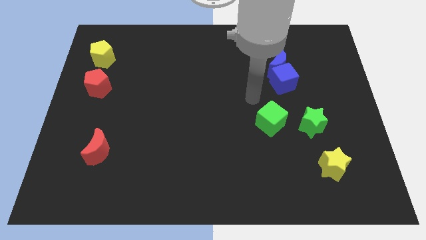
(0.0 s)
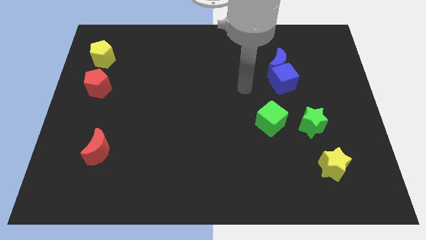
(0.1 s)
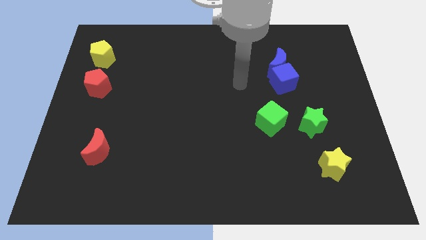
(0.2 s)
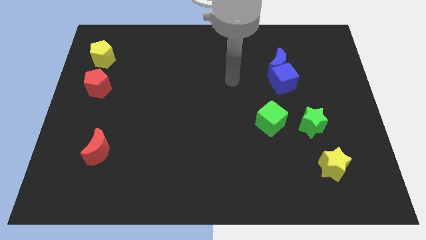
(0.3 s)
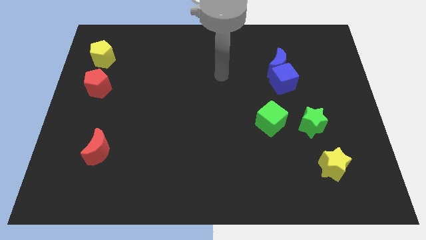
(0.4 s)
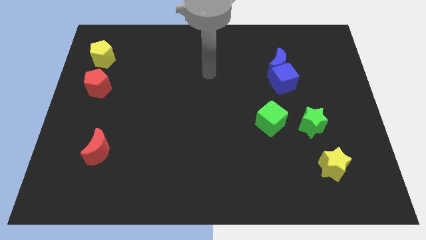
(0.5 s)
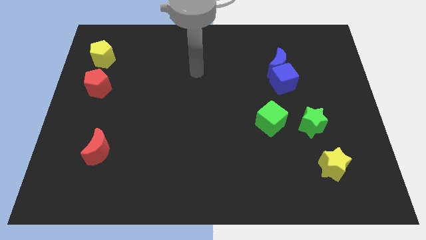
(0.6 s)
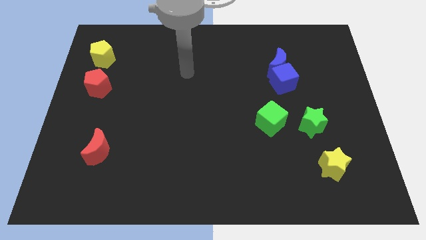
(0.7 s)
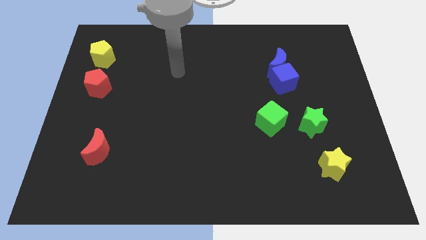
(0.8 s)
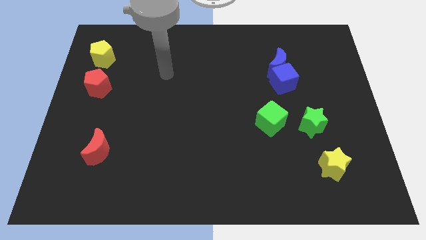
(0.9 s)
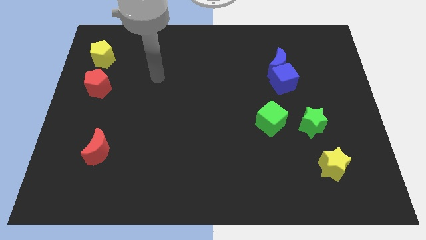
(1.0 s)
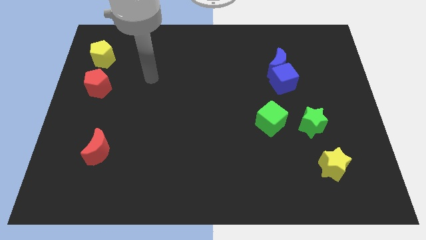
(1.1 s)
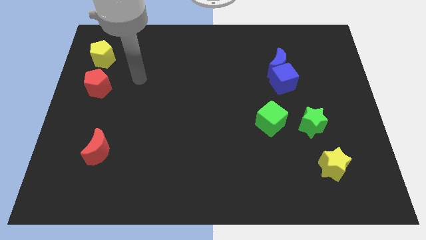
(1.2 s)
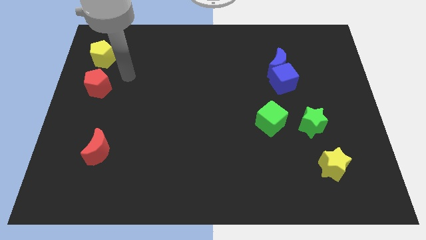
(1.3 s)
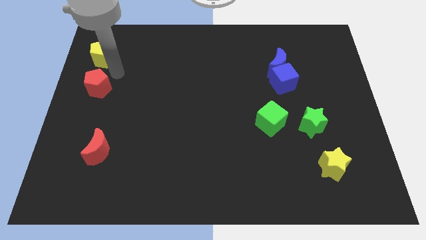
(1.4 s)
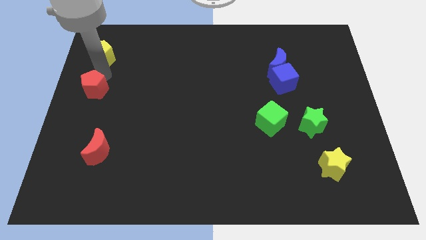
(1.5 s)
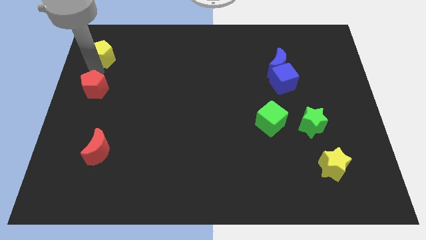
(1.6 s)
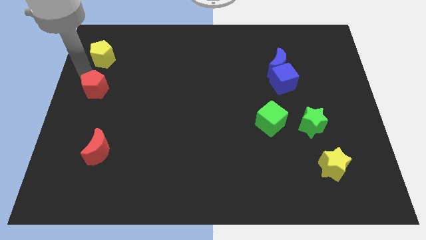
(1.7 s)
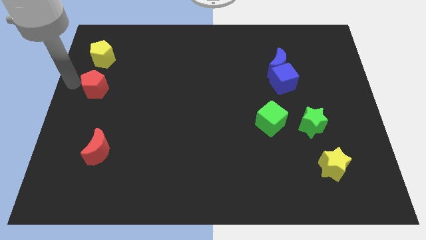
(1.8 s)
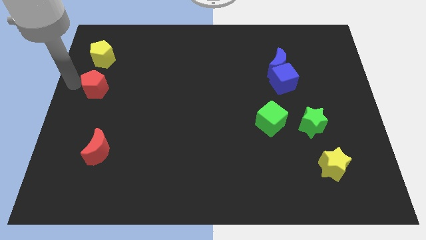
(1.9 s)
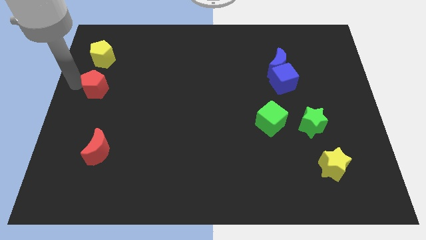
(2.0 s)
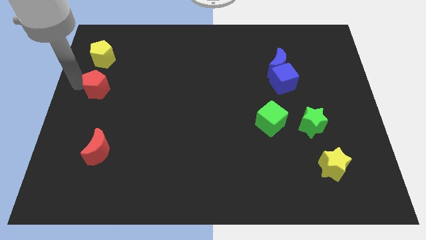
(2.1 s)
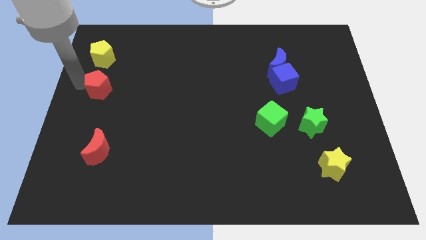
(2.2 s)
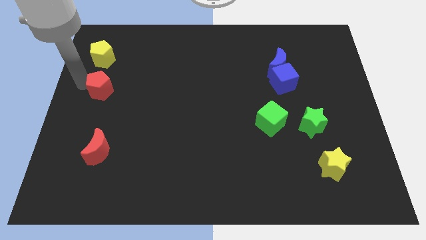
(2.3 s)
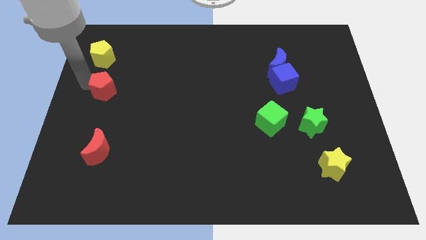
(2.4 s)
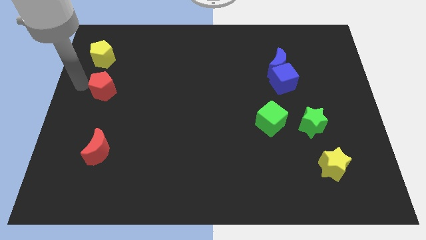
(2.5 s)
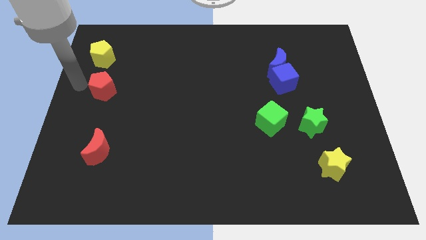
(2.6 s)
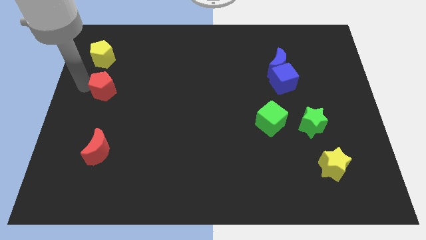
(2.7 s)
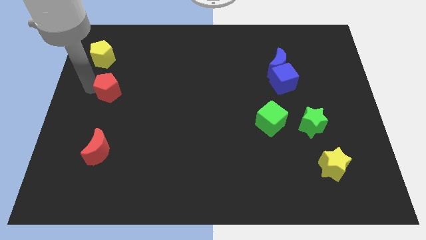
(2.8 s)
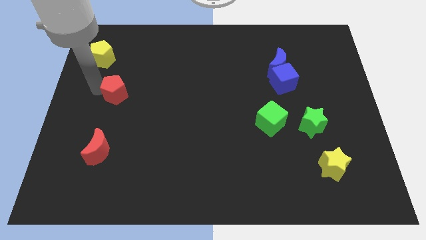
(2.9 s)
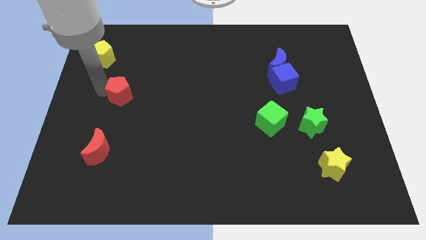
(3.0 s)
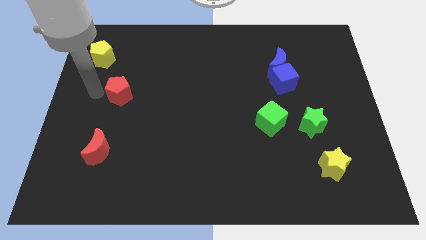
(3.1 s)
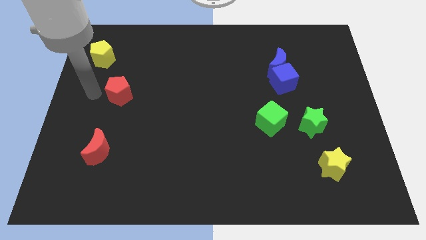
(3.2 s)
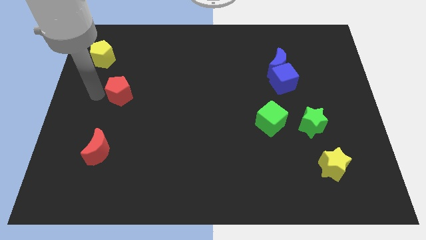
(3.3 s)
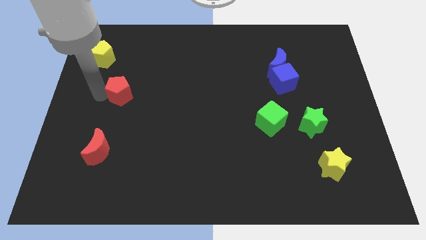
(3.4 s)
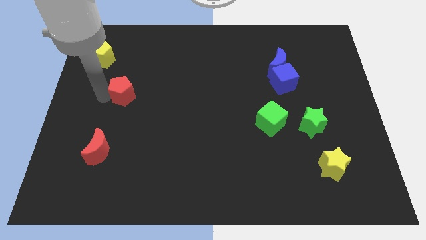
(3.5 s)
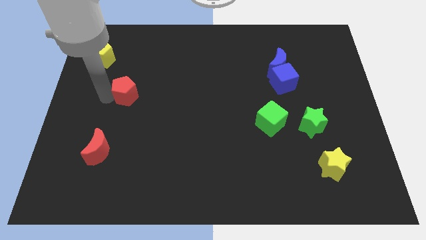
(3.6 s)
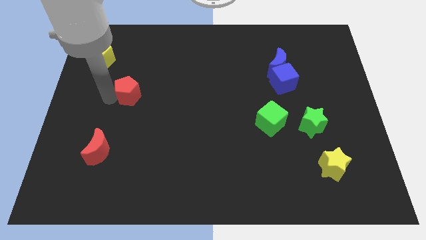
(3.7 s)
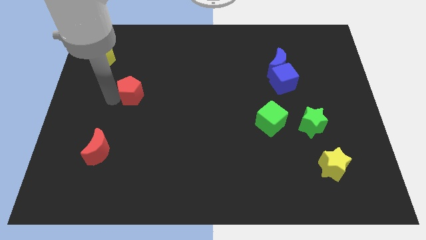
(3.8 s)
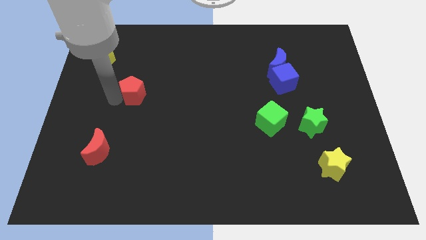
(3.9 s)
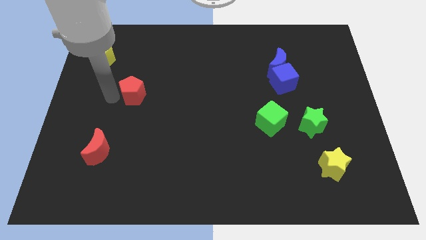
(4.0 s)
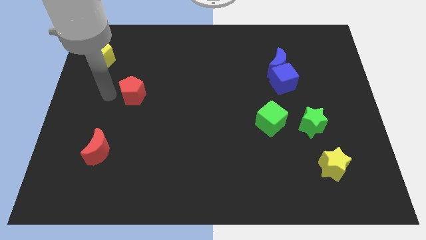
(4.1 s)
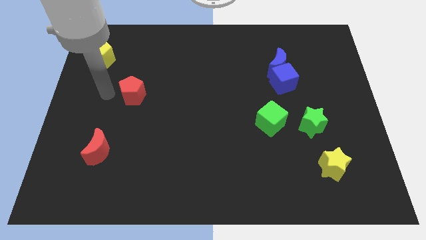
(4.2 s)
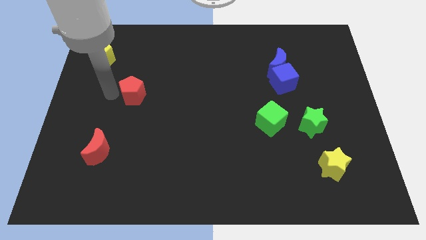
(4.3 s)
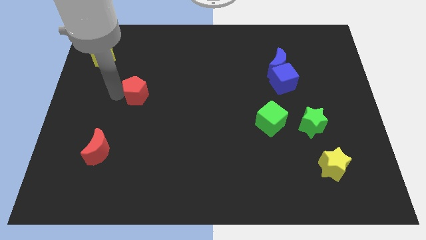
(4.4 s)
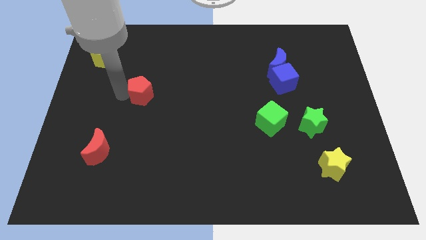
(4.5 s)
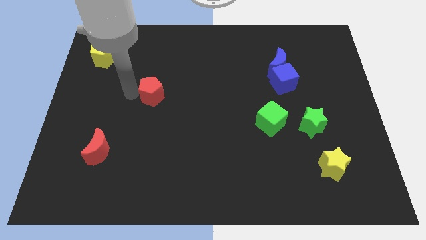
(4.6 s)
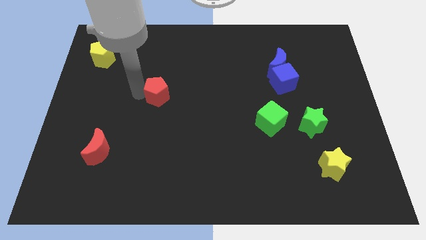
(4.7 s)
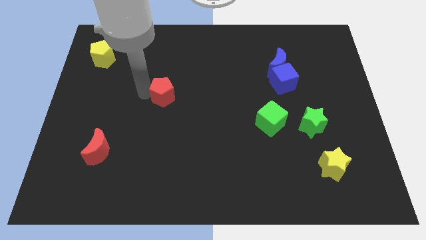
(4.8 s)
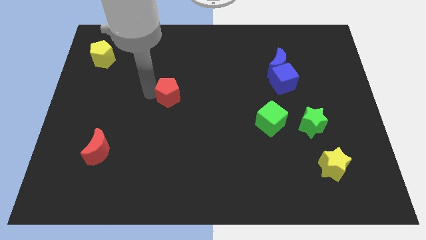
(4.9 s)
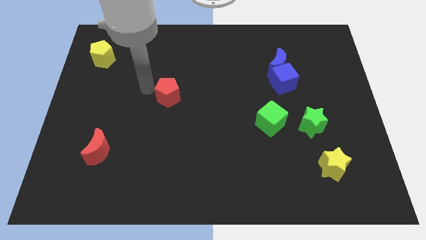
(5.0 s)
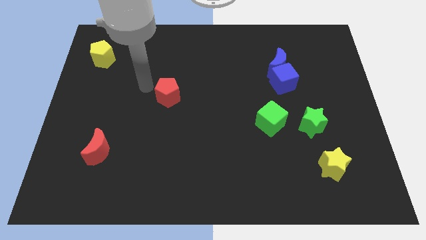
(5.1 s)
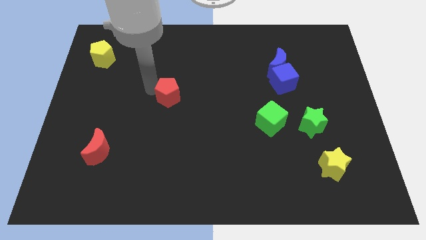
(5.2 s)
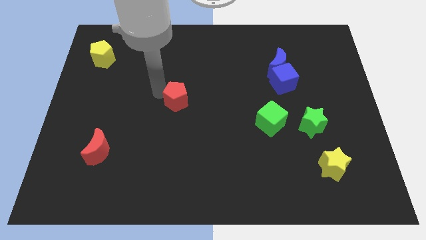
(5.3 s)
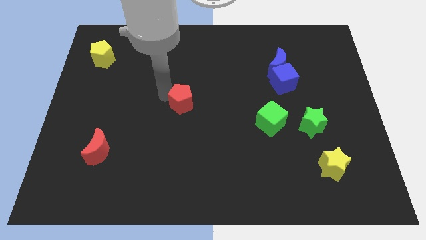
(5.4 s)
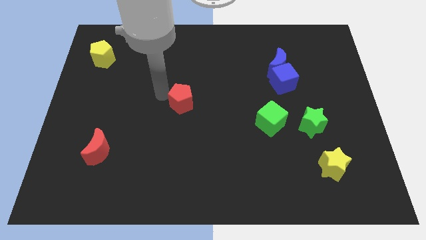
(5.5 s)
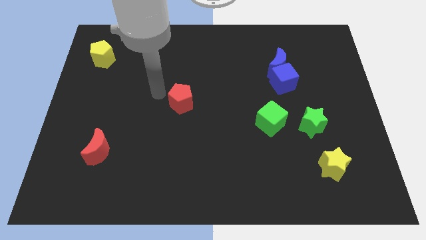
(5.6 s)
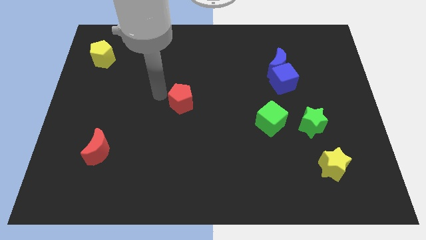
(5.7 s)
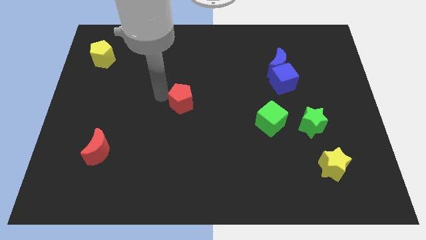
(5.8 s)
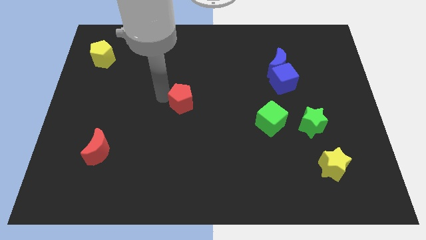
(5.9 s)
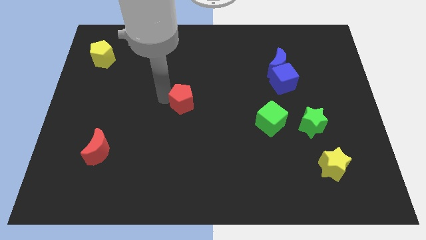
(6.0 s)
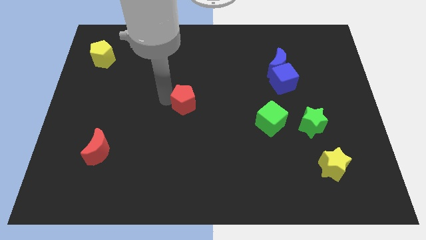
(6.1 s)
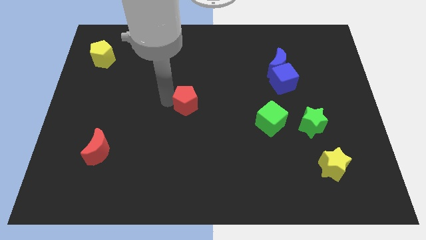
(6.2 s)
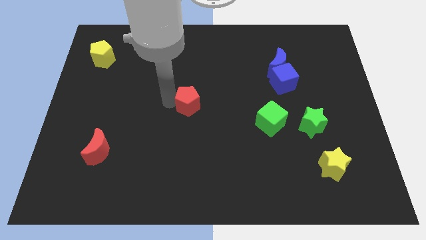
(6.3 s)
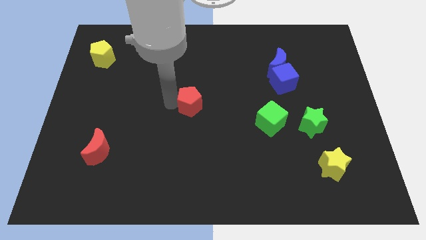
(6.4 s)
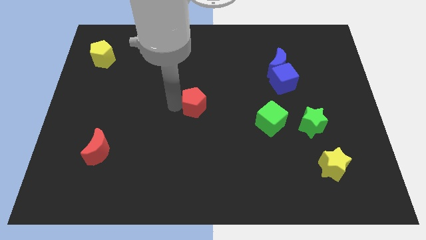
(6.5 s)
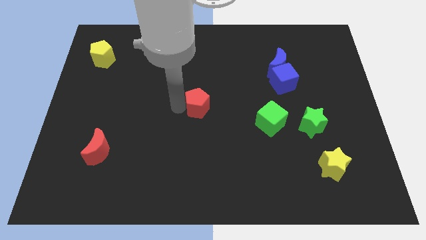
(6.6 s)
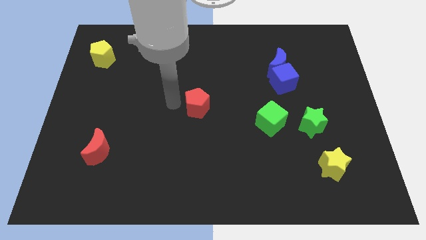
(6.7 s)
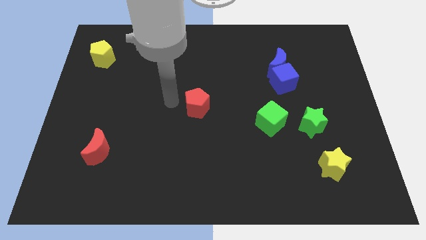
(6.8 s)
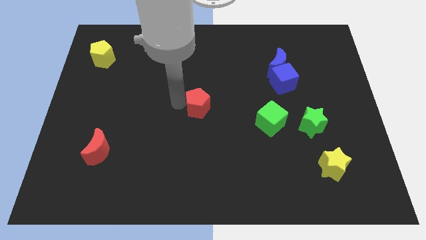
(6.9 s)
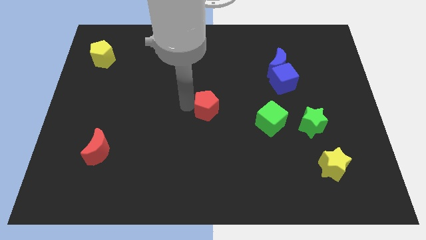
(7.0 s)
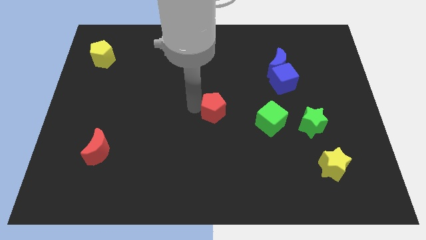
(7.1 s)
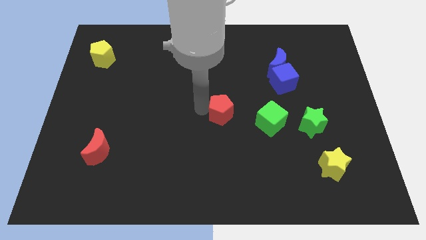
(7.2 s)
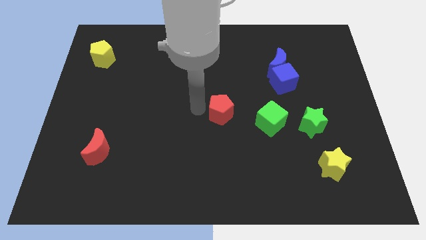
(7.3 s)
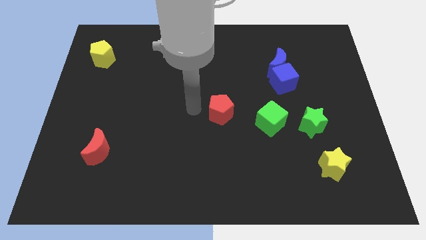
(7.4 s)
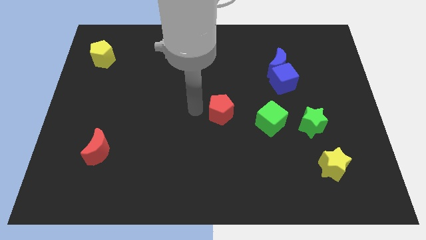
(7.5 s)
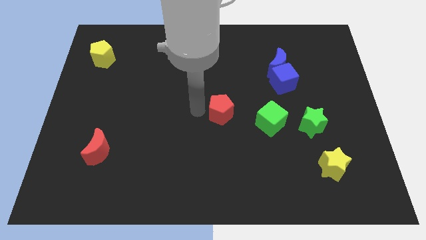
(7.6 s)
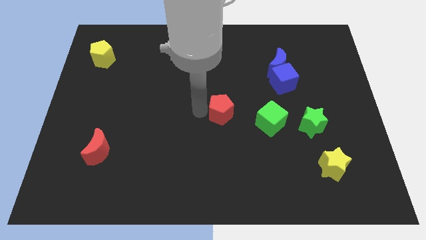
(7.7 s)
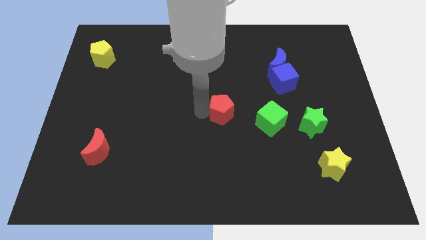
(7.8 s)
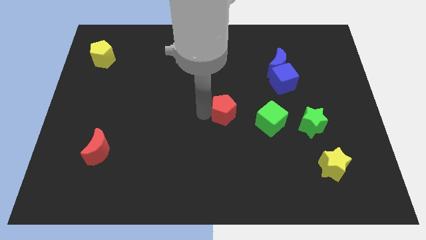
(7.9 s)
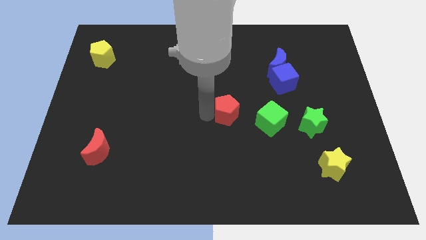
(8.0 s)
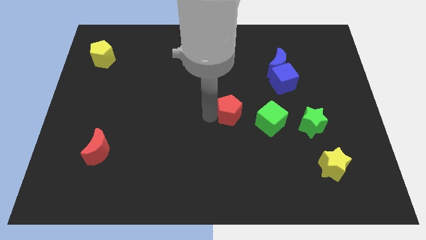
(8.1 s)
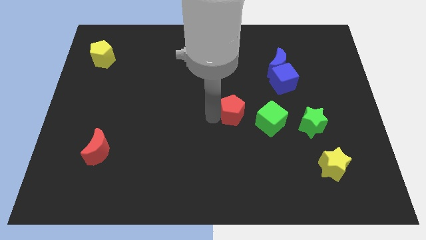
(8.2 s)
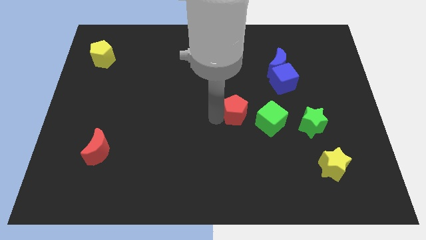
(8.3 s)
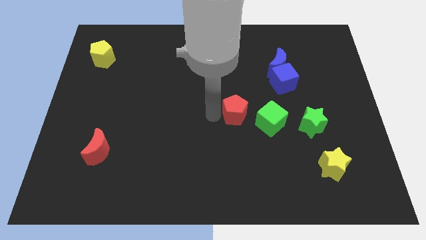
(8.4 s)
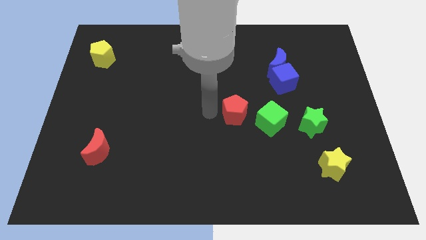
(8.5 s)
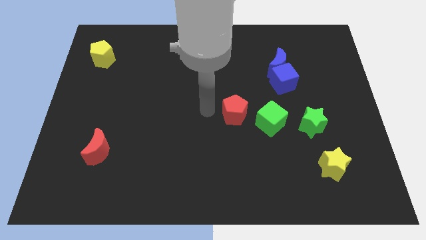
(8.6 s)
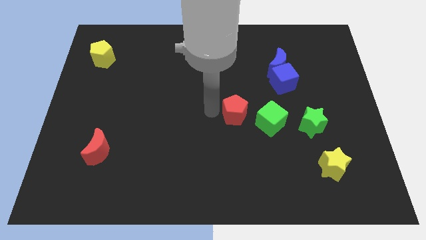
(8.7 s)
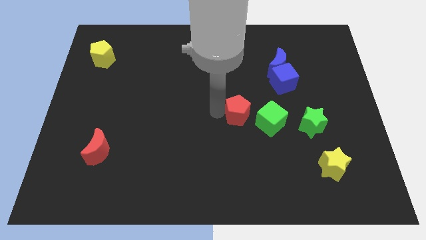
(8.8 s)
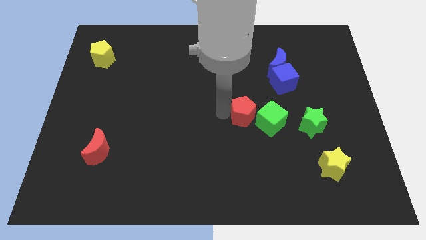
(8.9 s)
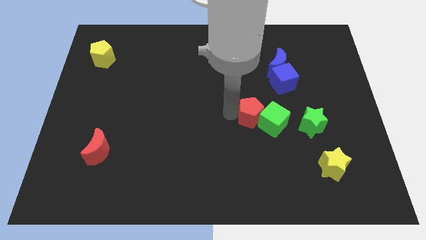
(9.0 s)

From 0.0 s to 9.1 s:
push the red pentagon to the green cube
